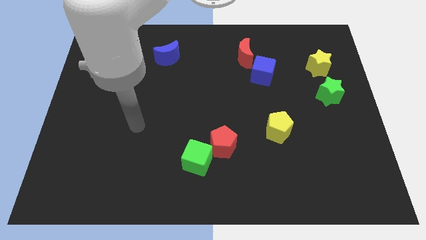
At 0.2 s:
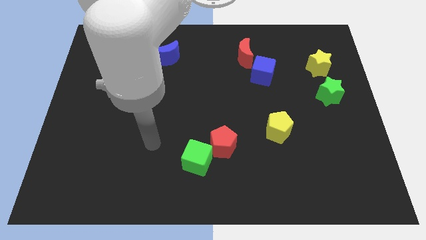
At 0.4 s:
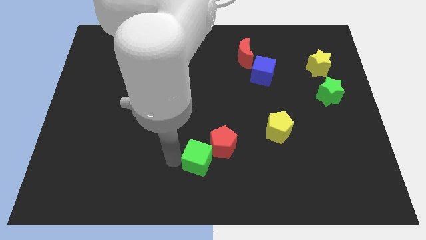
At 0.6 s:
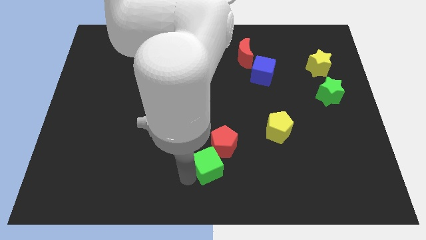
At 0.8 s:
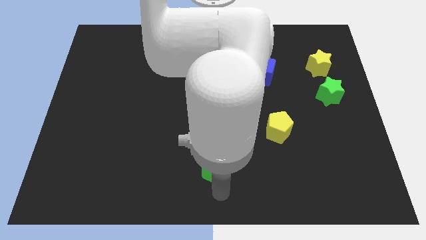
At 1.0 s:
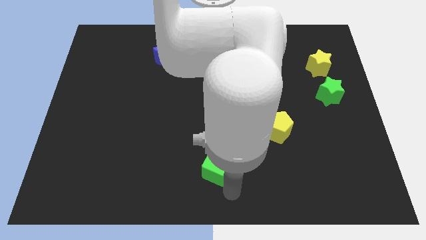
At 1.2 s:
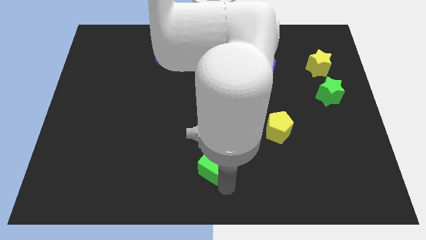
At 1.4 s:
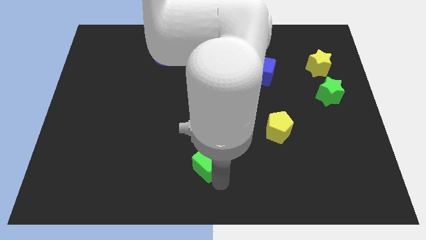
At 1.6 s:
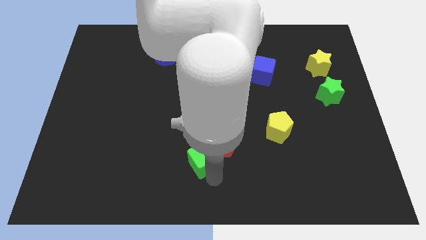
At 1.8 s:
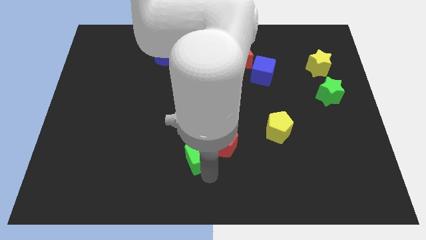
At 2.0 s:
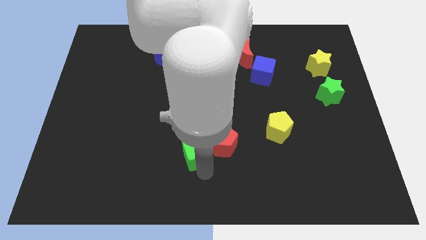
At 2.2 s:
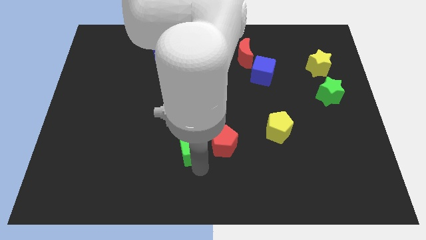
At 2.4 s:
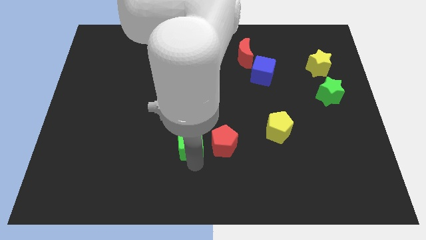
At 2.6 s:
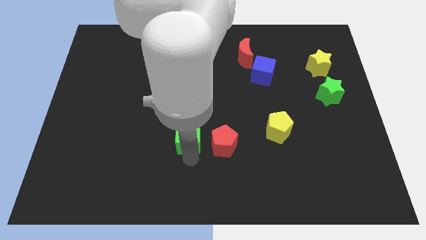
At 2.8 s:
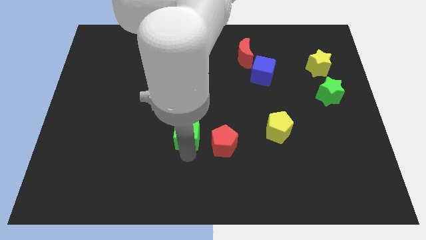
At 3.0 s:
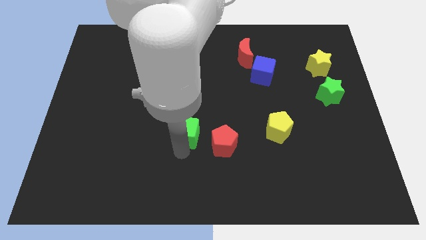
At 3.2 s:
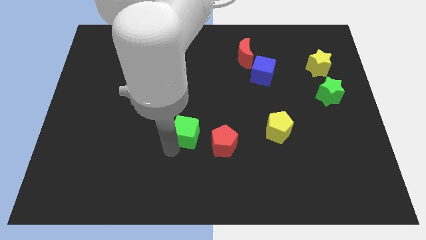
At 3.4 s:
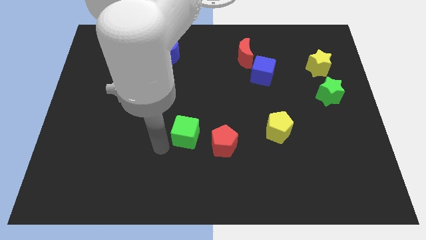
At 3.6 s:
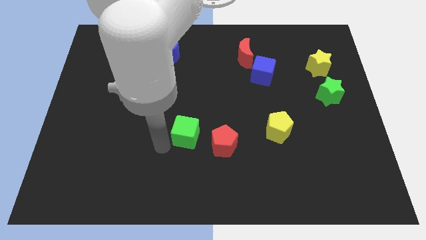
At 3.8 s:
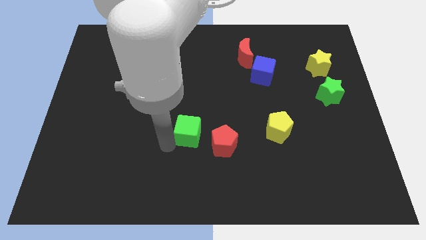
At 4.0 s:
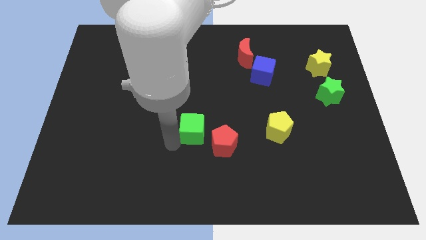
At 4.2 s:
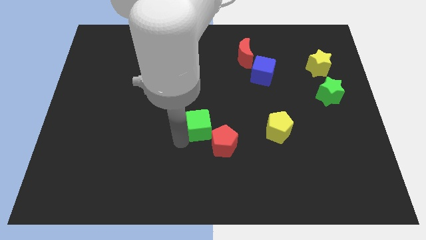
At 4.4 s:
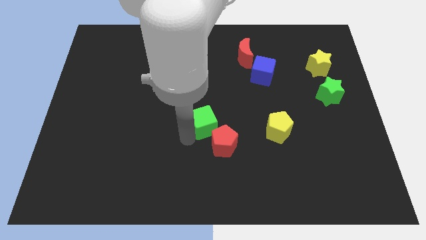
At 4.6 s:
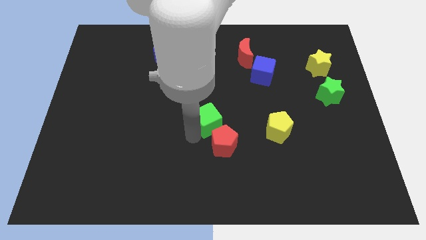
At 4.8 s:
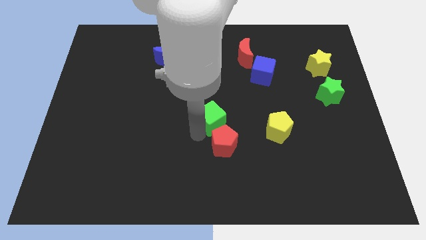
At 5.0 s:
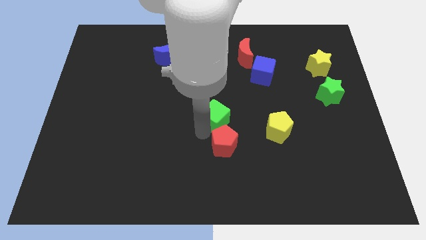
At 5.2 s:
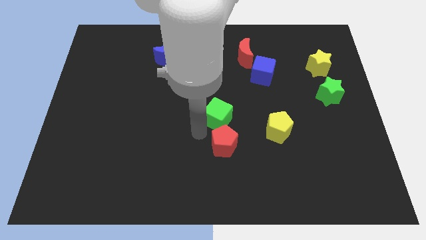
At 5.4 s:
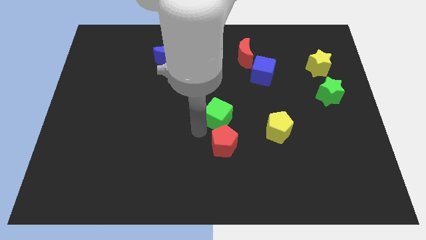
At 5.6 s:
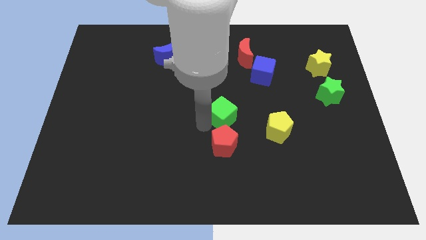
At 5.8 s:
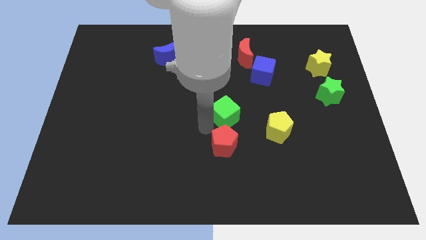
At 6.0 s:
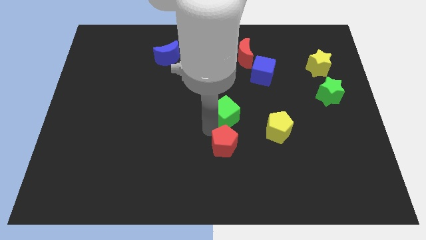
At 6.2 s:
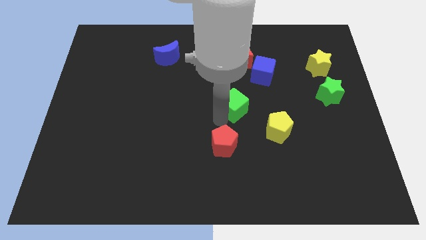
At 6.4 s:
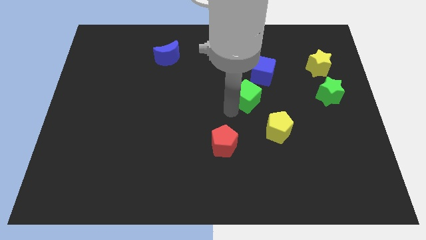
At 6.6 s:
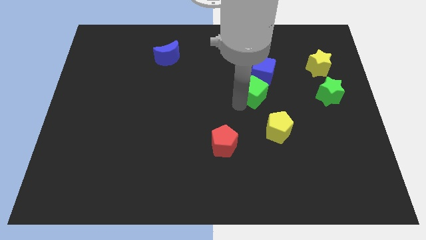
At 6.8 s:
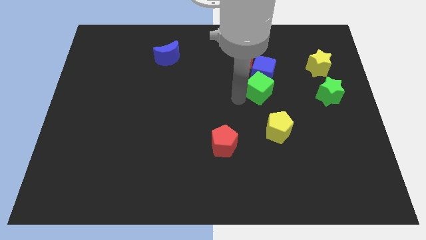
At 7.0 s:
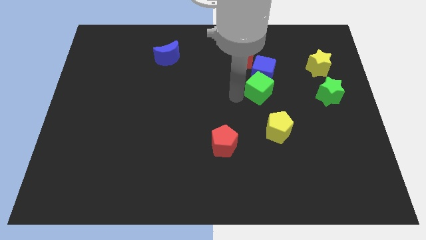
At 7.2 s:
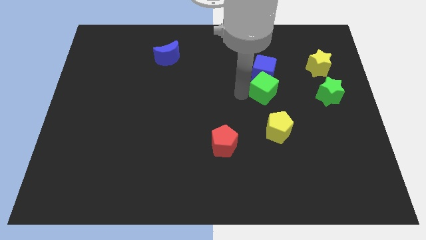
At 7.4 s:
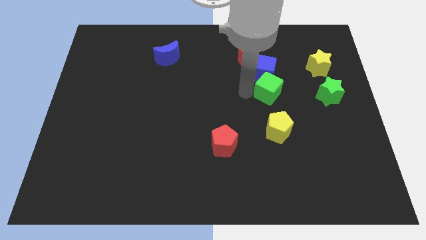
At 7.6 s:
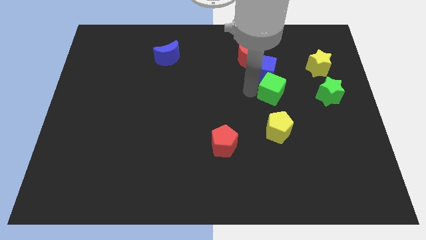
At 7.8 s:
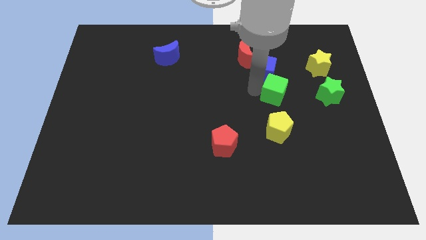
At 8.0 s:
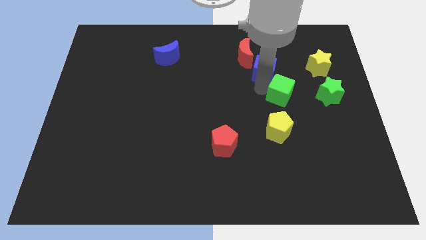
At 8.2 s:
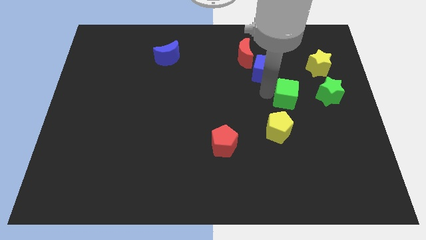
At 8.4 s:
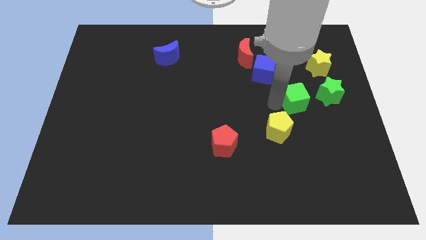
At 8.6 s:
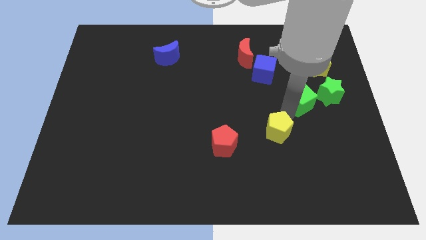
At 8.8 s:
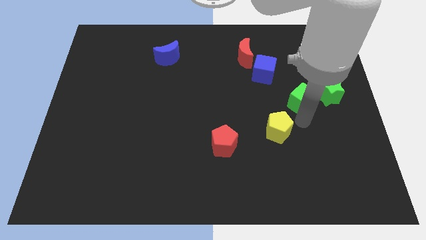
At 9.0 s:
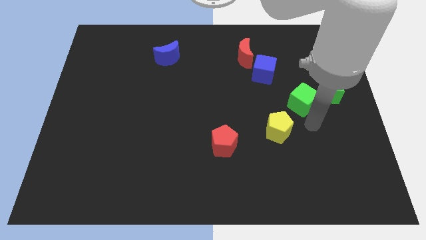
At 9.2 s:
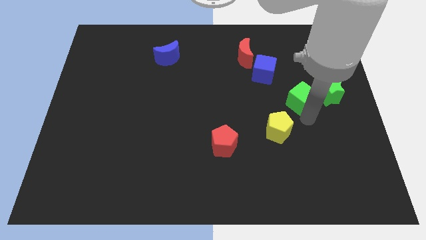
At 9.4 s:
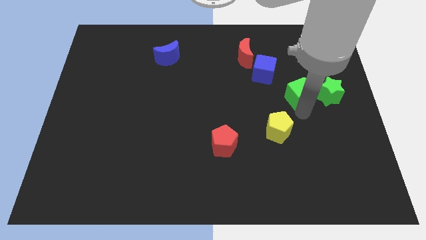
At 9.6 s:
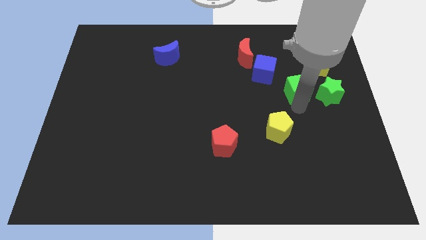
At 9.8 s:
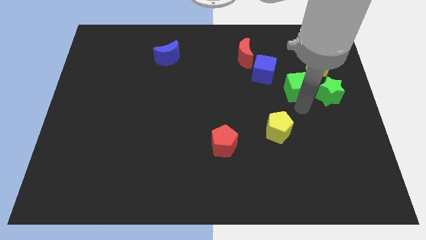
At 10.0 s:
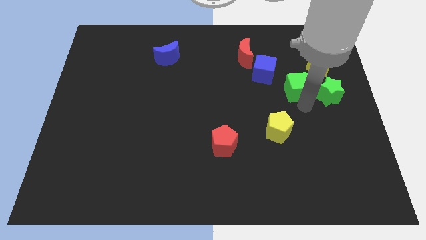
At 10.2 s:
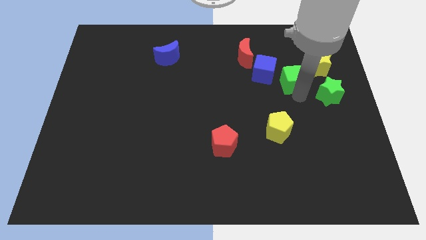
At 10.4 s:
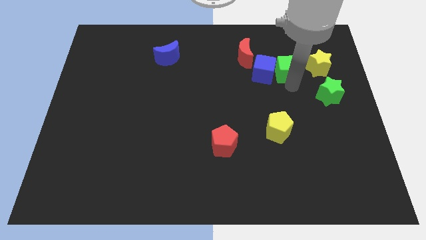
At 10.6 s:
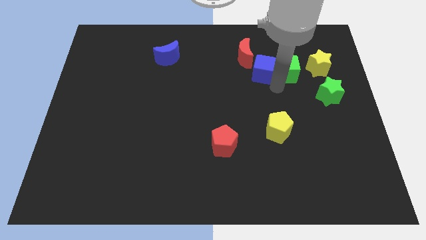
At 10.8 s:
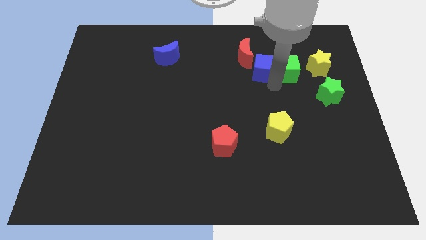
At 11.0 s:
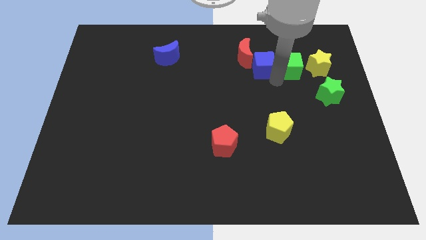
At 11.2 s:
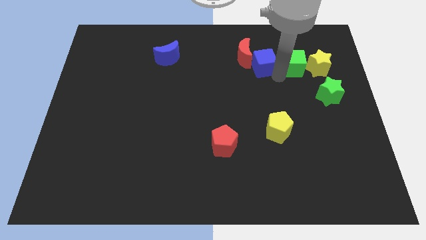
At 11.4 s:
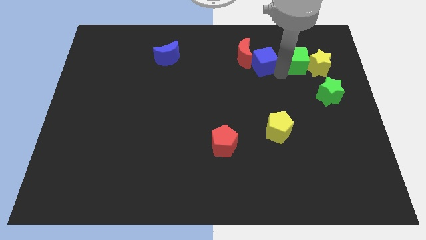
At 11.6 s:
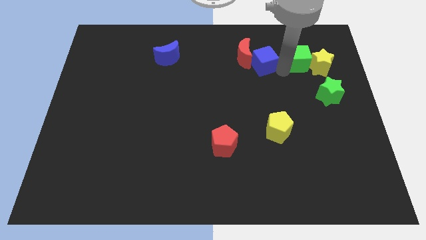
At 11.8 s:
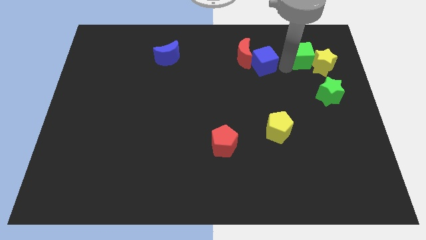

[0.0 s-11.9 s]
put the green cube above the green star

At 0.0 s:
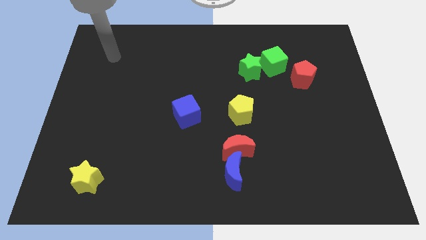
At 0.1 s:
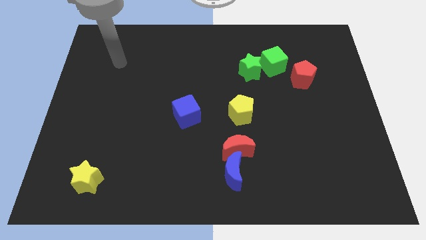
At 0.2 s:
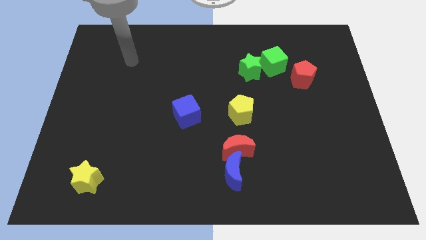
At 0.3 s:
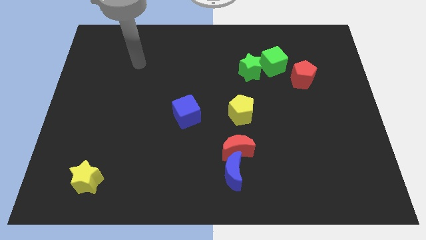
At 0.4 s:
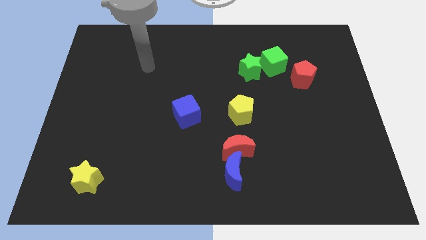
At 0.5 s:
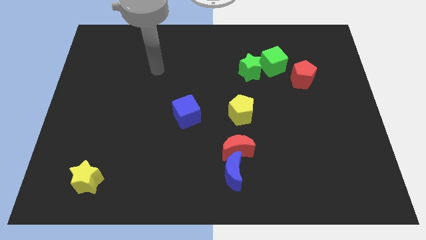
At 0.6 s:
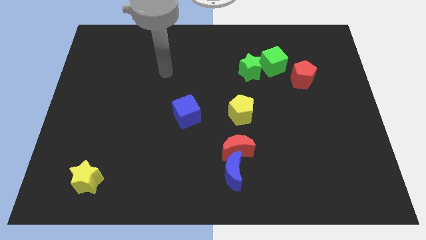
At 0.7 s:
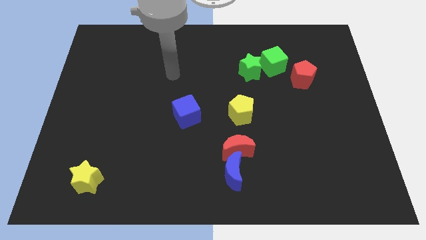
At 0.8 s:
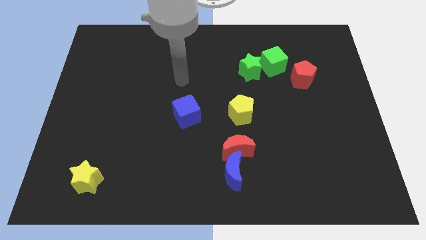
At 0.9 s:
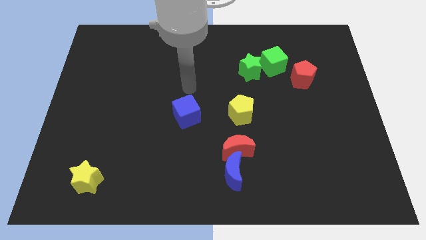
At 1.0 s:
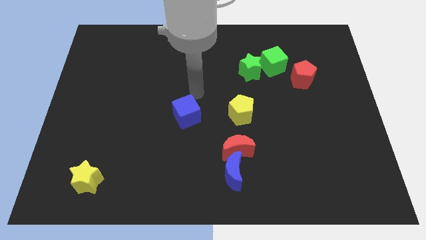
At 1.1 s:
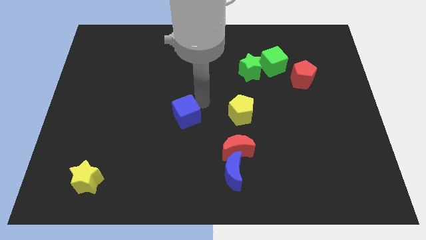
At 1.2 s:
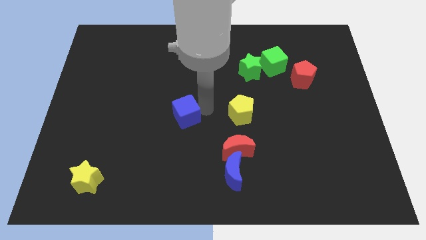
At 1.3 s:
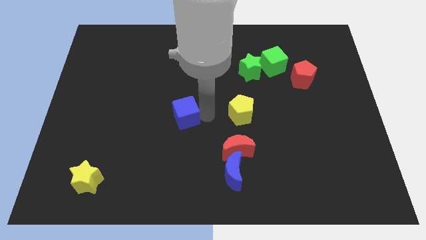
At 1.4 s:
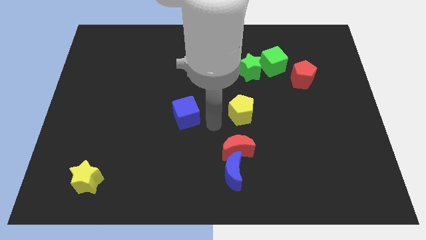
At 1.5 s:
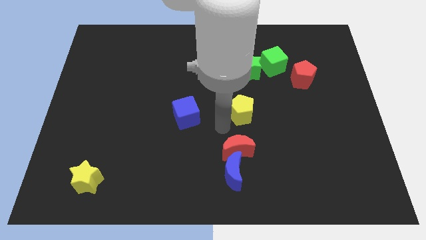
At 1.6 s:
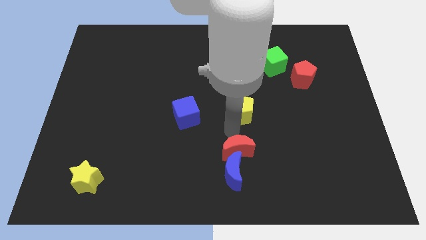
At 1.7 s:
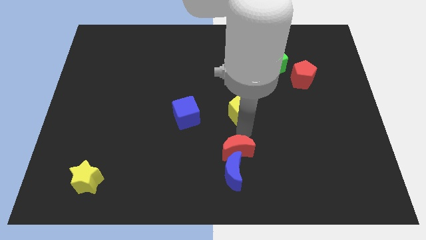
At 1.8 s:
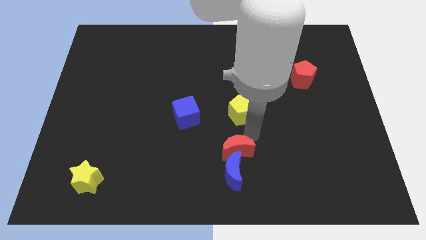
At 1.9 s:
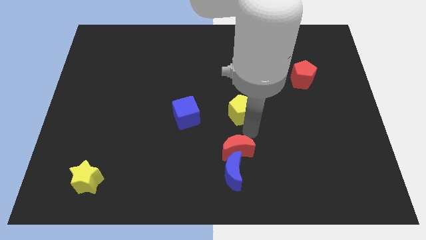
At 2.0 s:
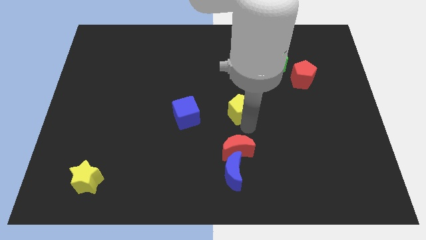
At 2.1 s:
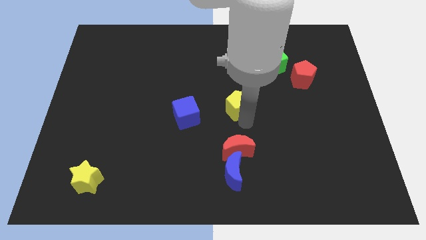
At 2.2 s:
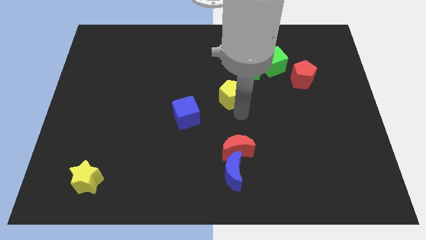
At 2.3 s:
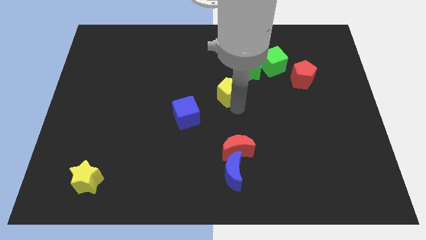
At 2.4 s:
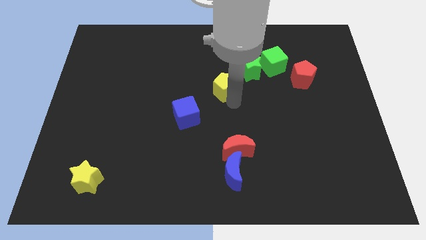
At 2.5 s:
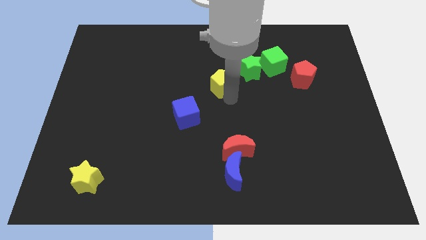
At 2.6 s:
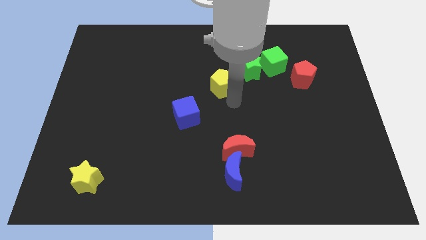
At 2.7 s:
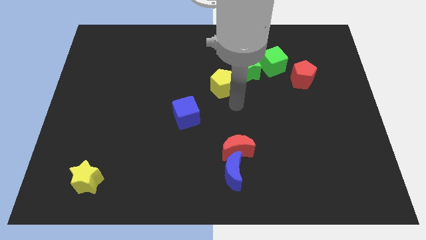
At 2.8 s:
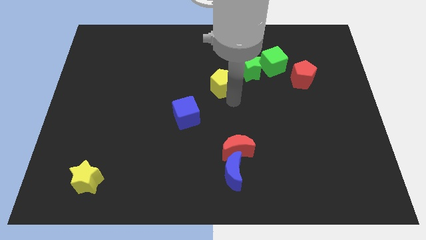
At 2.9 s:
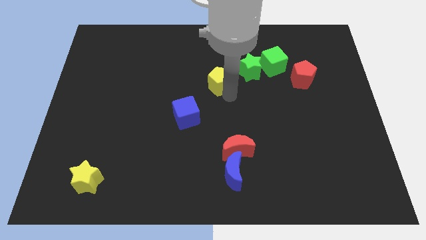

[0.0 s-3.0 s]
slide the yellow pentagon to the left of the green star
